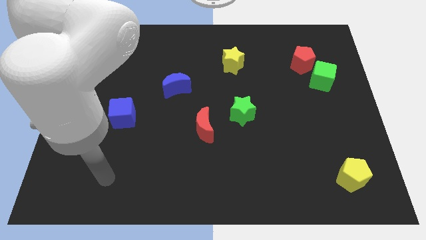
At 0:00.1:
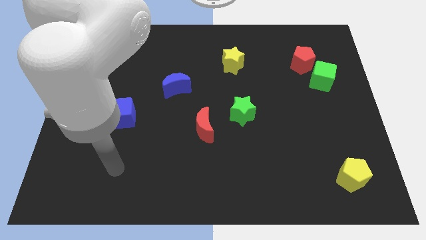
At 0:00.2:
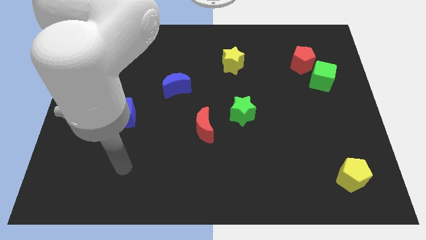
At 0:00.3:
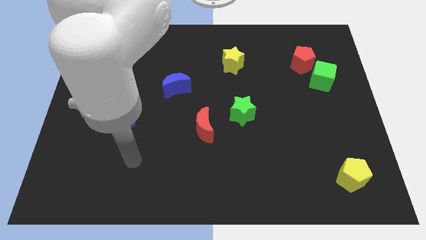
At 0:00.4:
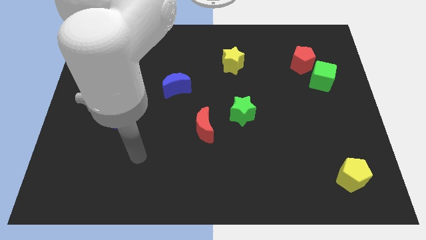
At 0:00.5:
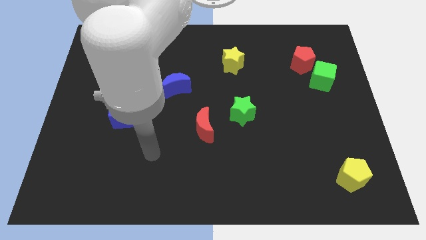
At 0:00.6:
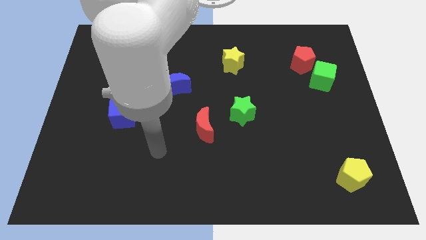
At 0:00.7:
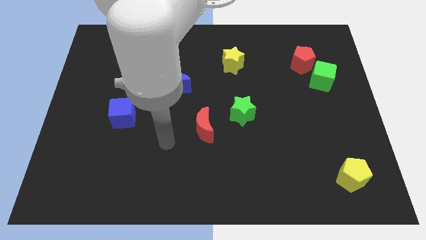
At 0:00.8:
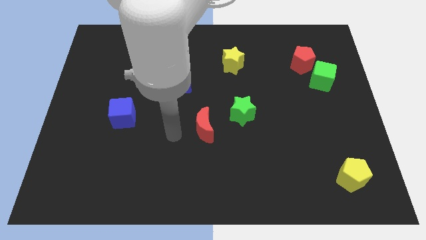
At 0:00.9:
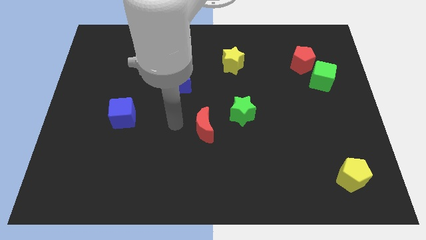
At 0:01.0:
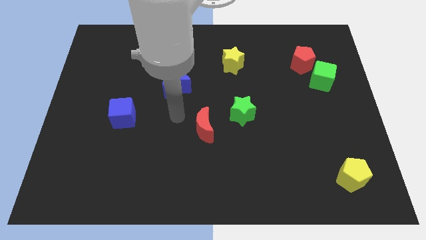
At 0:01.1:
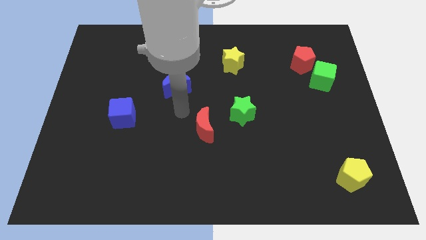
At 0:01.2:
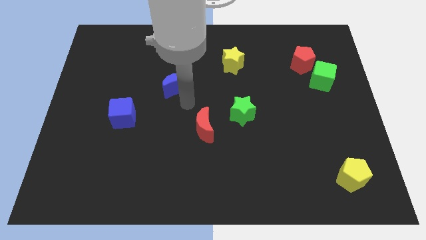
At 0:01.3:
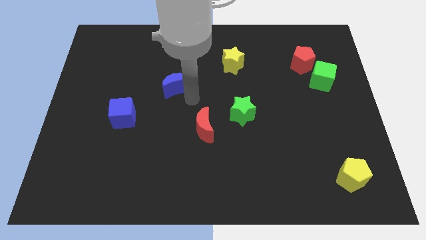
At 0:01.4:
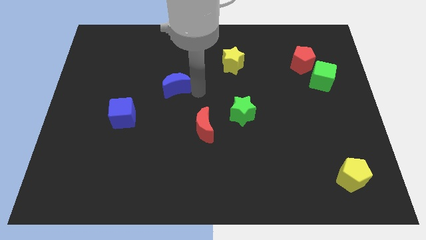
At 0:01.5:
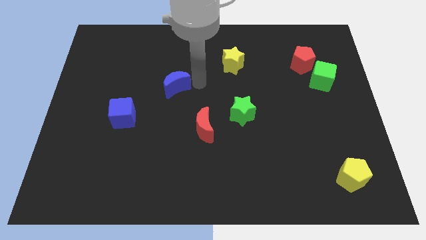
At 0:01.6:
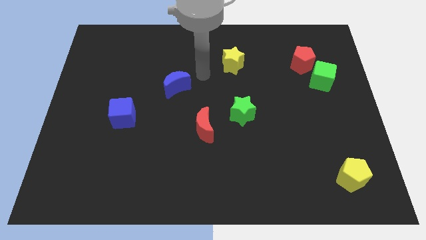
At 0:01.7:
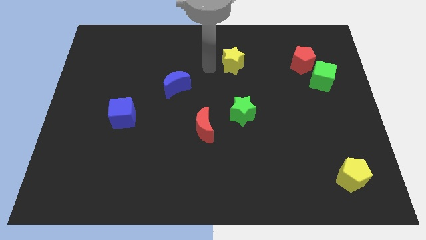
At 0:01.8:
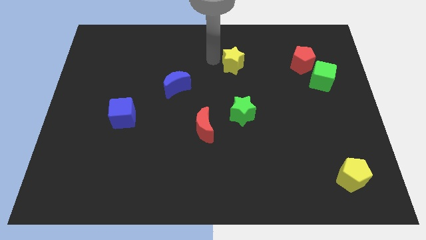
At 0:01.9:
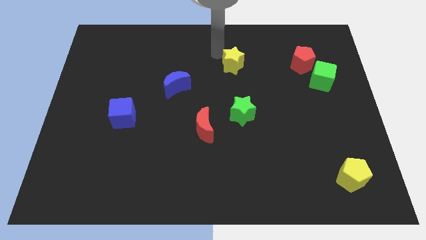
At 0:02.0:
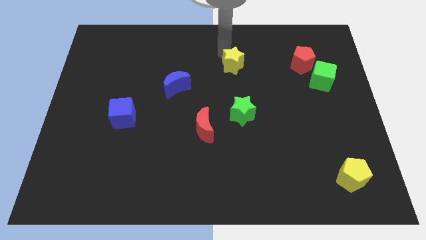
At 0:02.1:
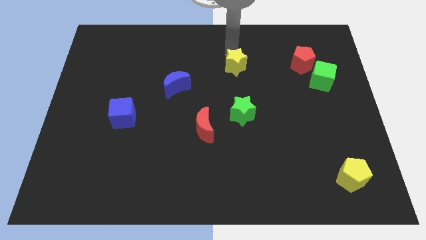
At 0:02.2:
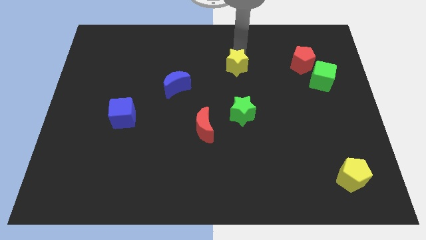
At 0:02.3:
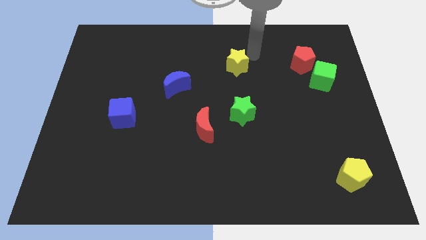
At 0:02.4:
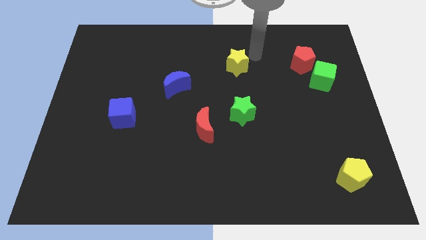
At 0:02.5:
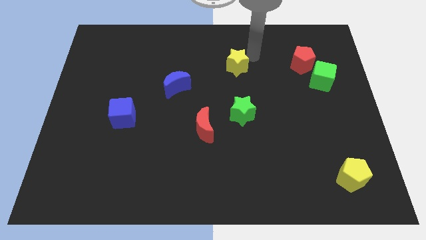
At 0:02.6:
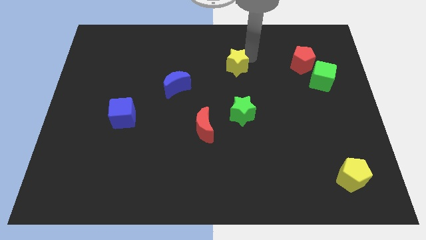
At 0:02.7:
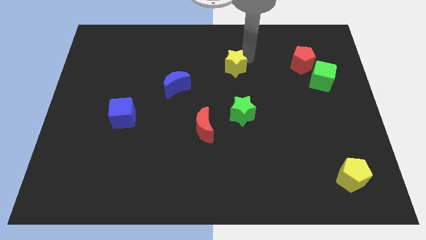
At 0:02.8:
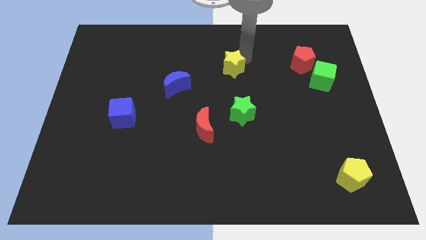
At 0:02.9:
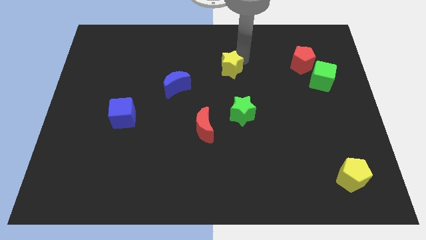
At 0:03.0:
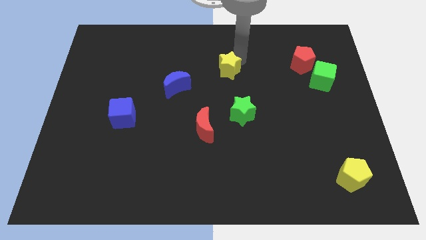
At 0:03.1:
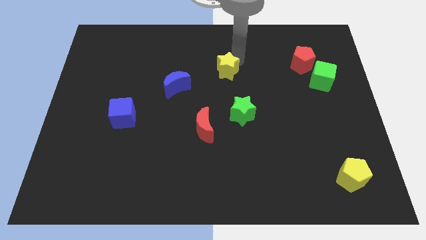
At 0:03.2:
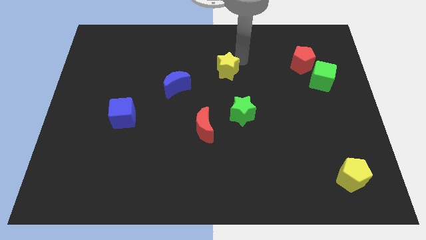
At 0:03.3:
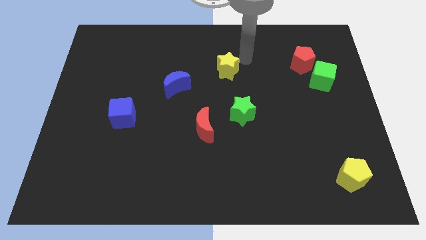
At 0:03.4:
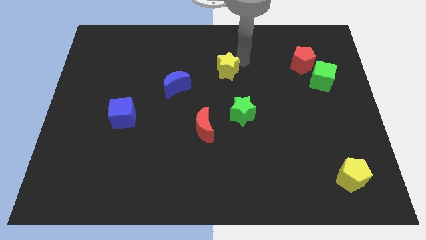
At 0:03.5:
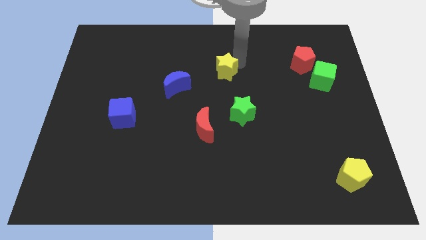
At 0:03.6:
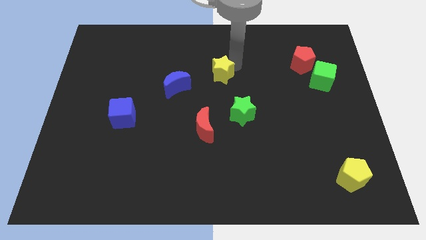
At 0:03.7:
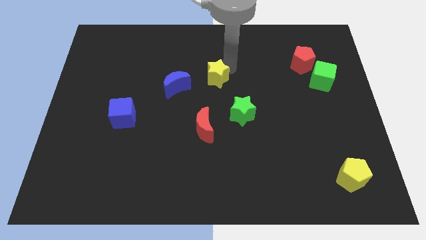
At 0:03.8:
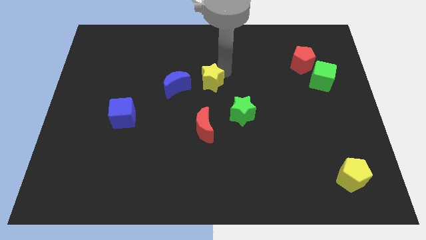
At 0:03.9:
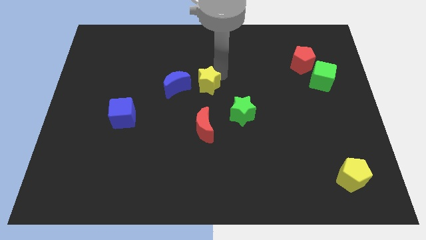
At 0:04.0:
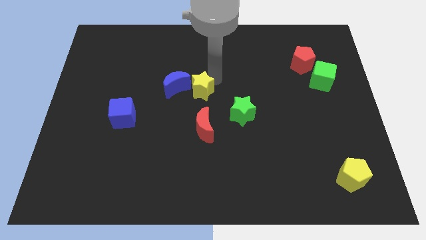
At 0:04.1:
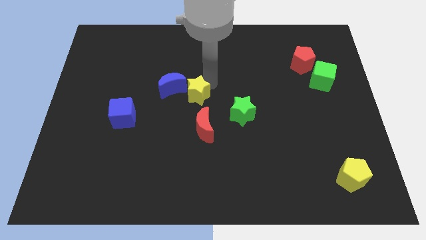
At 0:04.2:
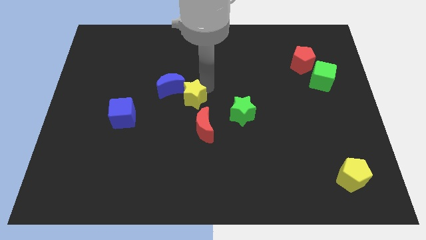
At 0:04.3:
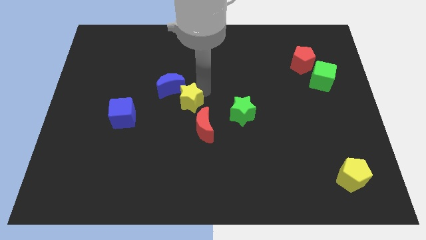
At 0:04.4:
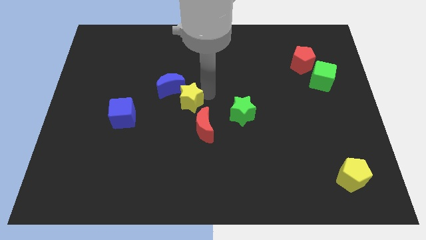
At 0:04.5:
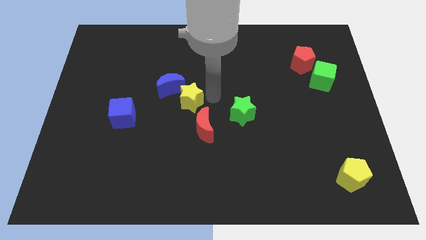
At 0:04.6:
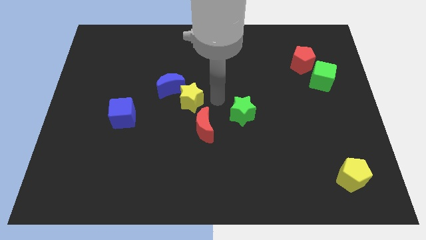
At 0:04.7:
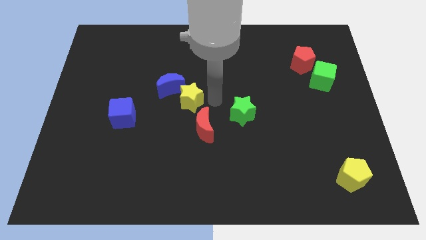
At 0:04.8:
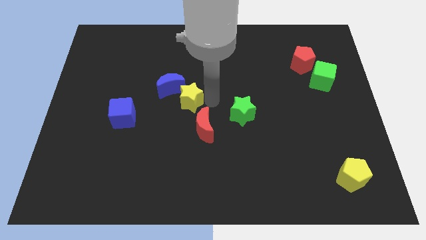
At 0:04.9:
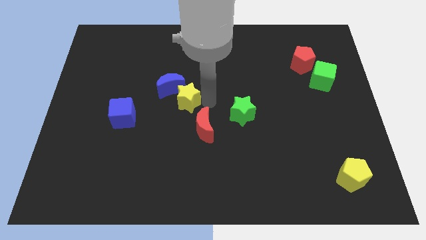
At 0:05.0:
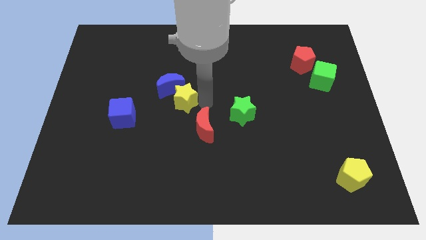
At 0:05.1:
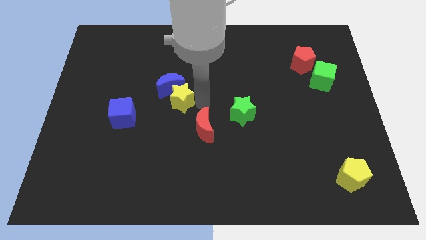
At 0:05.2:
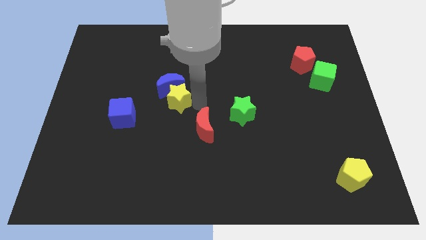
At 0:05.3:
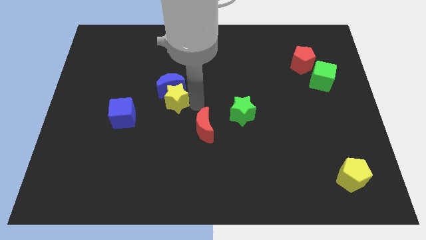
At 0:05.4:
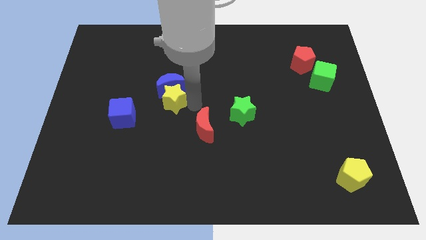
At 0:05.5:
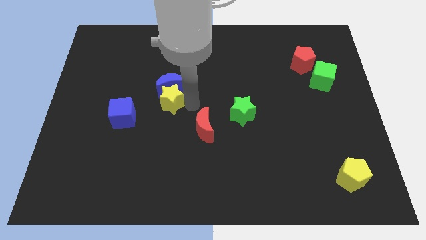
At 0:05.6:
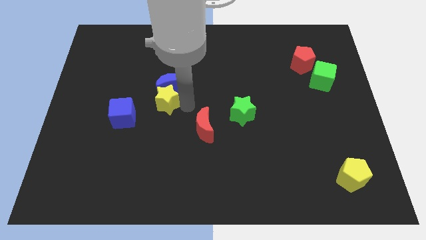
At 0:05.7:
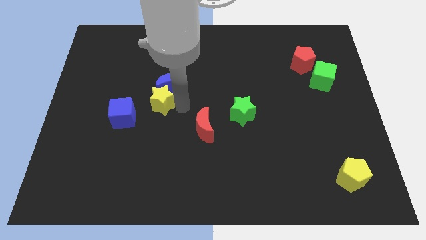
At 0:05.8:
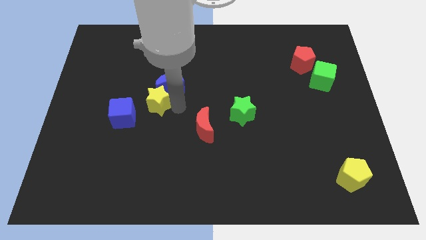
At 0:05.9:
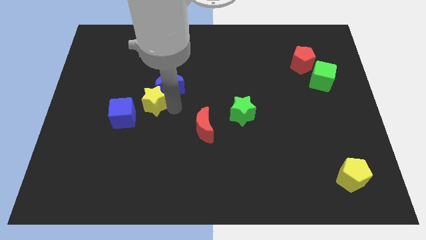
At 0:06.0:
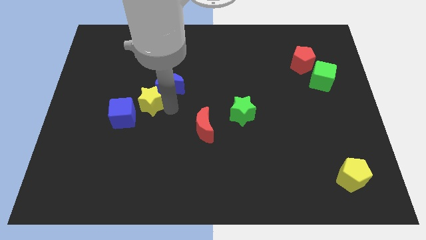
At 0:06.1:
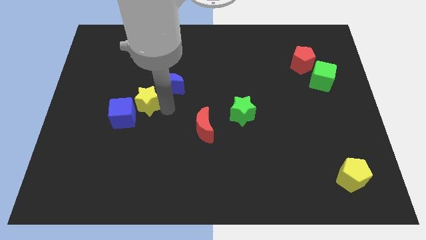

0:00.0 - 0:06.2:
move the yellow star close to the blue cube

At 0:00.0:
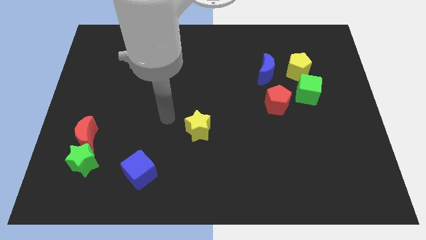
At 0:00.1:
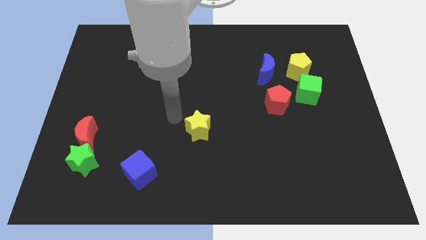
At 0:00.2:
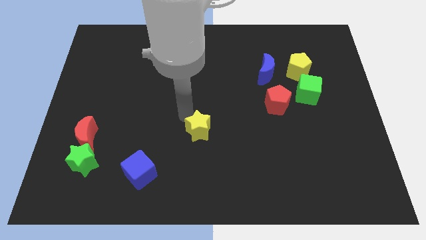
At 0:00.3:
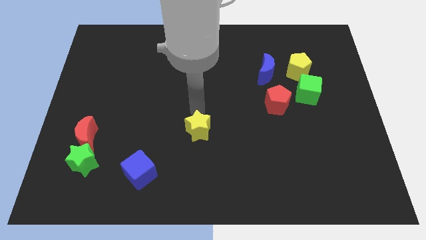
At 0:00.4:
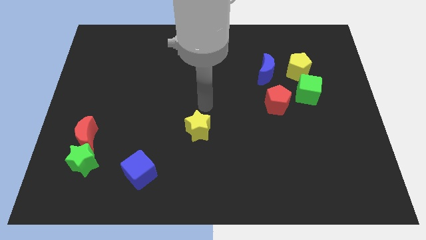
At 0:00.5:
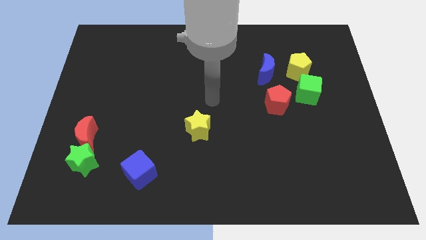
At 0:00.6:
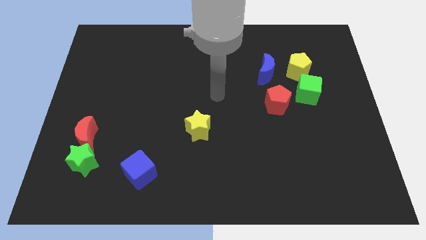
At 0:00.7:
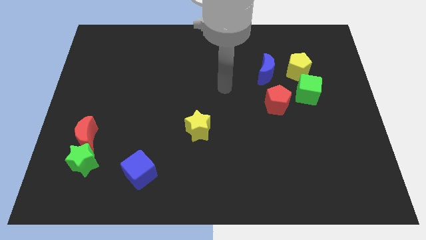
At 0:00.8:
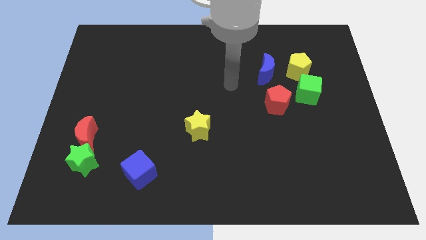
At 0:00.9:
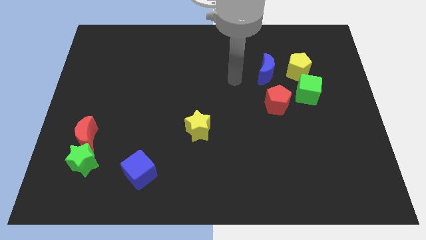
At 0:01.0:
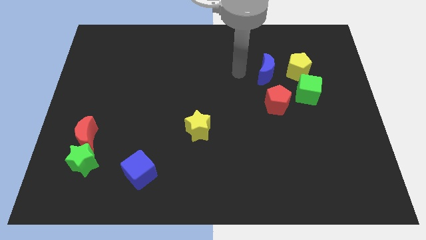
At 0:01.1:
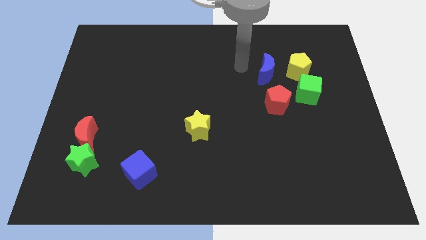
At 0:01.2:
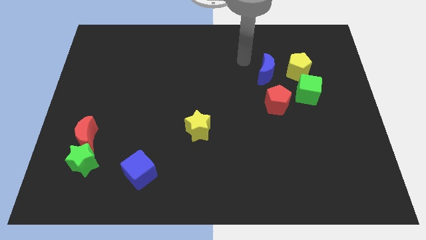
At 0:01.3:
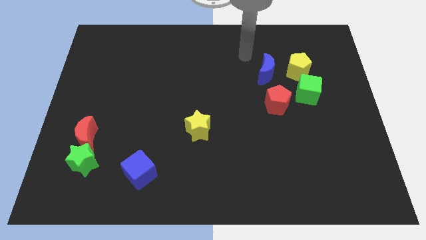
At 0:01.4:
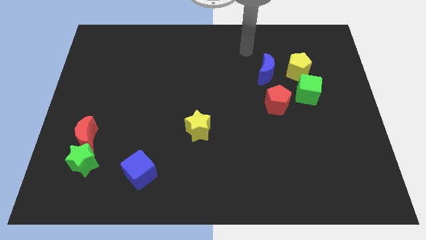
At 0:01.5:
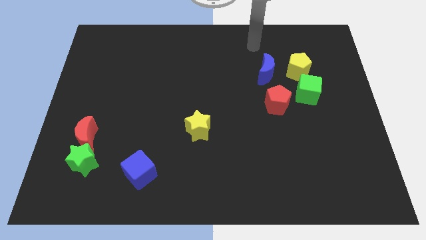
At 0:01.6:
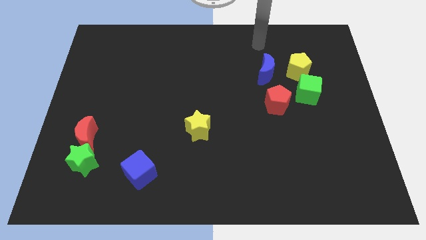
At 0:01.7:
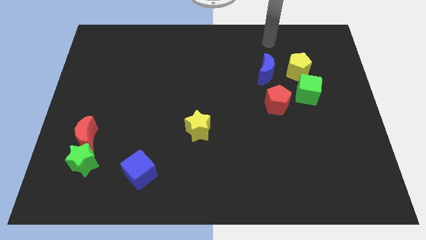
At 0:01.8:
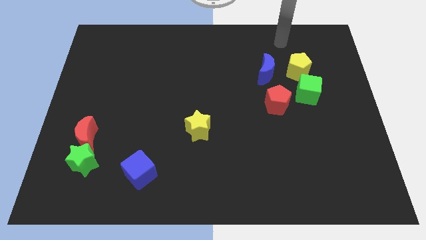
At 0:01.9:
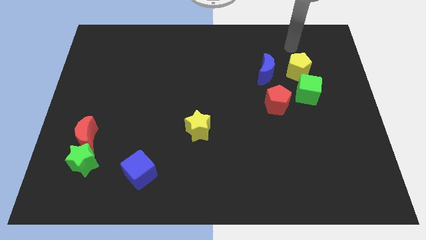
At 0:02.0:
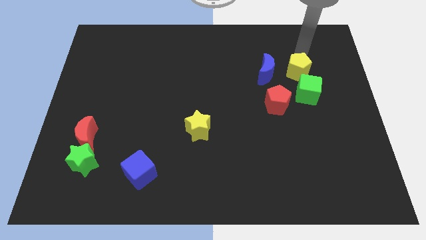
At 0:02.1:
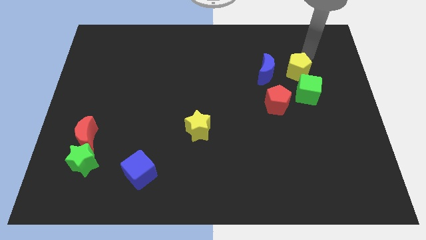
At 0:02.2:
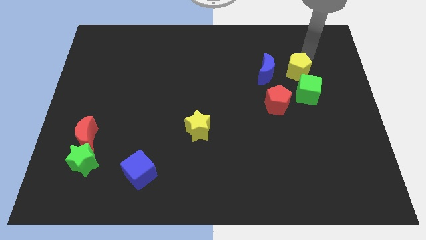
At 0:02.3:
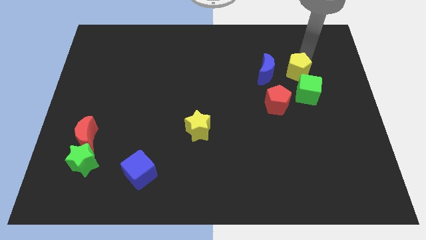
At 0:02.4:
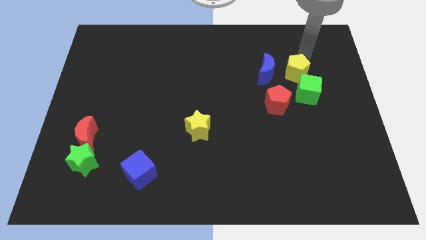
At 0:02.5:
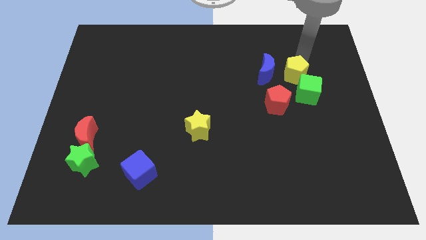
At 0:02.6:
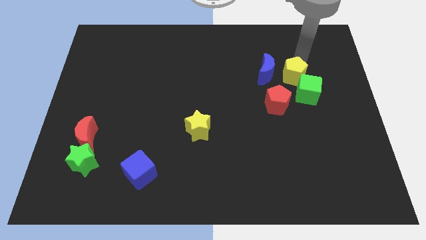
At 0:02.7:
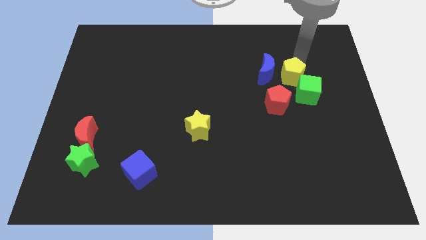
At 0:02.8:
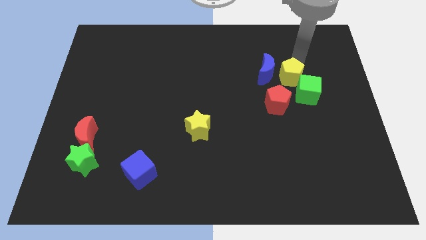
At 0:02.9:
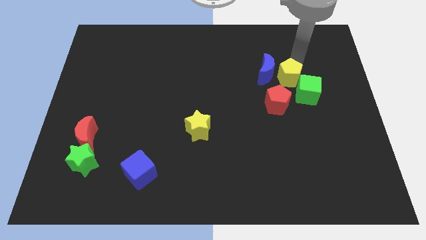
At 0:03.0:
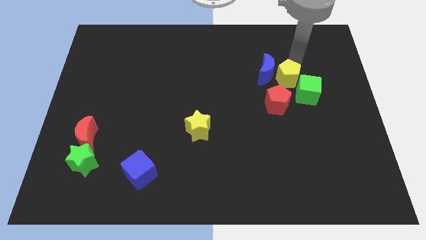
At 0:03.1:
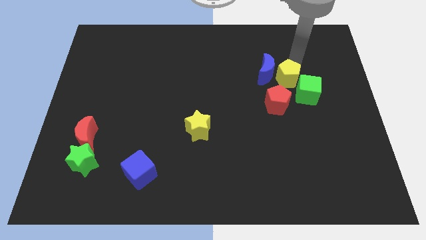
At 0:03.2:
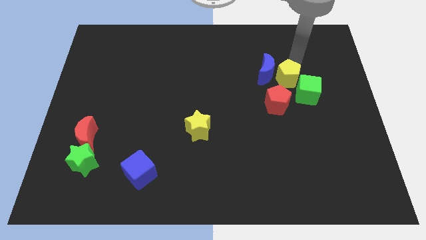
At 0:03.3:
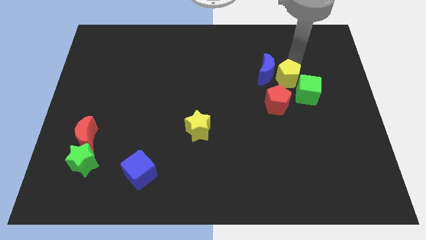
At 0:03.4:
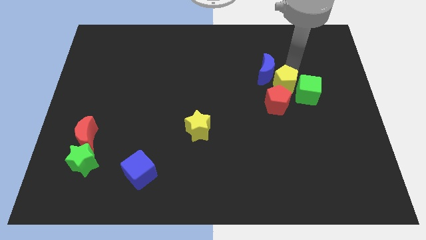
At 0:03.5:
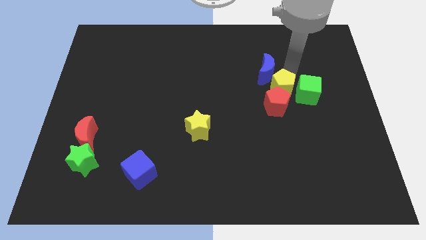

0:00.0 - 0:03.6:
put the yellow pentagon towards the red pentagon
